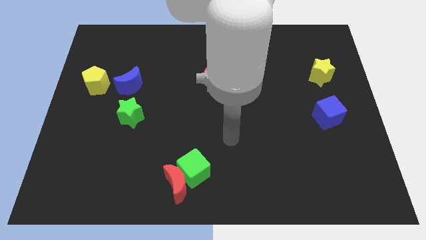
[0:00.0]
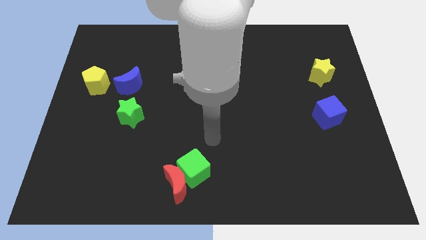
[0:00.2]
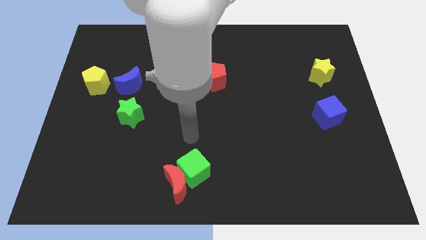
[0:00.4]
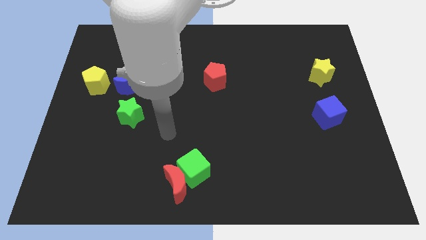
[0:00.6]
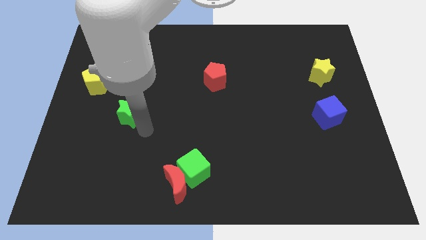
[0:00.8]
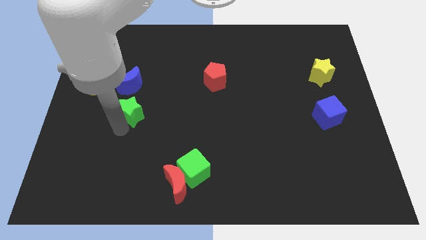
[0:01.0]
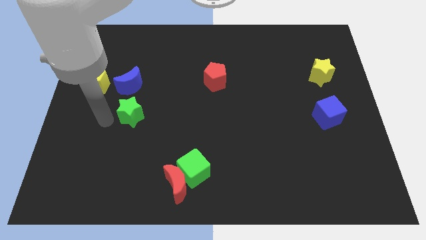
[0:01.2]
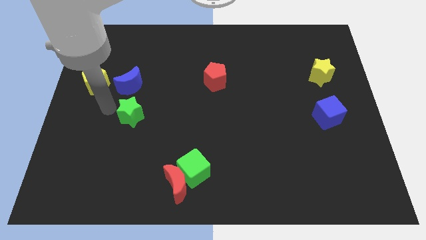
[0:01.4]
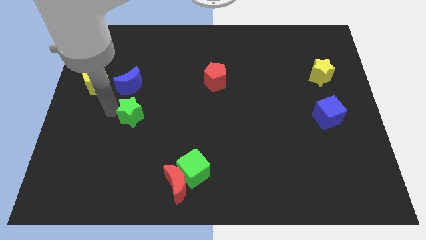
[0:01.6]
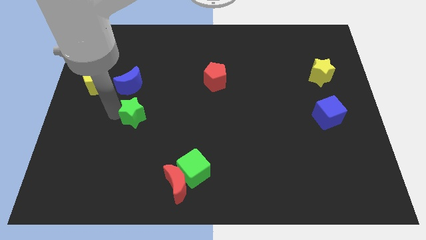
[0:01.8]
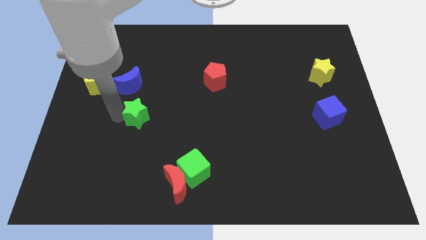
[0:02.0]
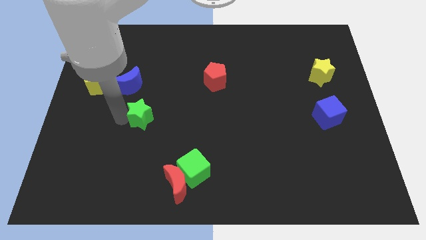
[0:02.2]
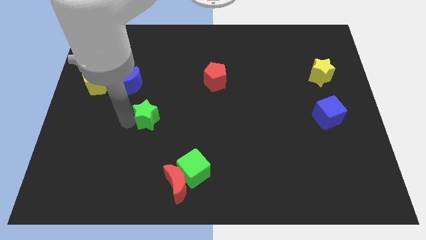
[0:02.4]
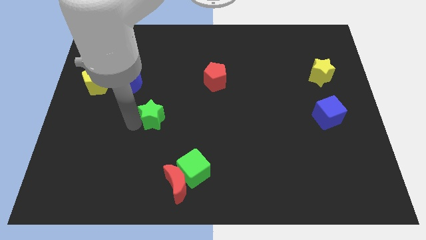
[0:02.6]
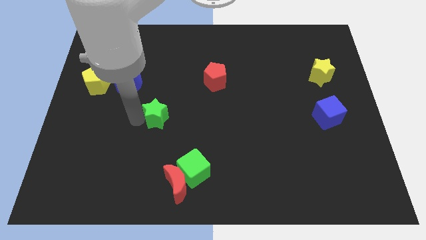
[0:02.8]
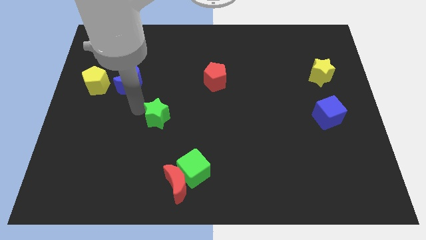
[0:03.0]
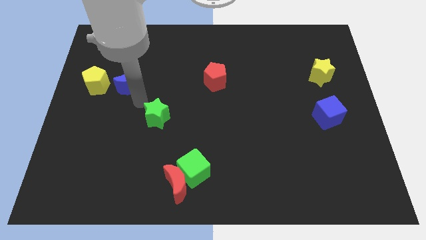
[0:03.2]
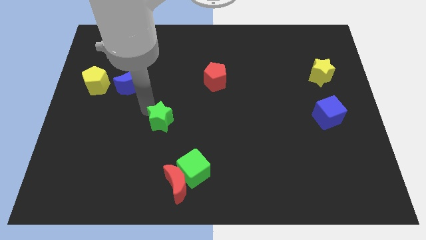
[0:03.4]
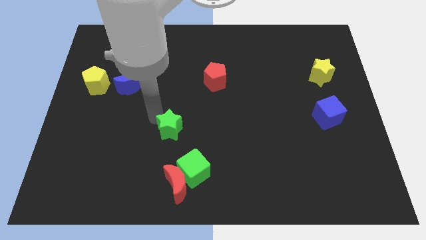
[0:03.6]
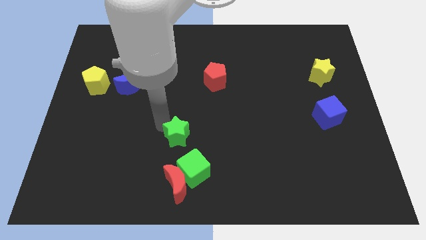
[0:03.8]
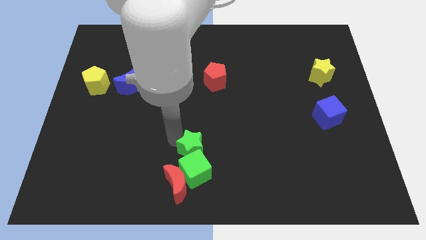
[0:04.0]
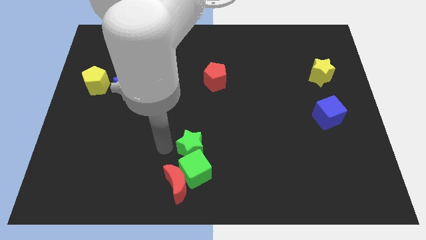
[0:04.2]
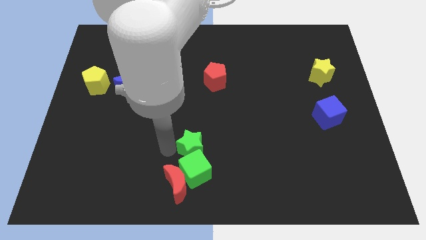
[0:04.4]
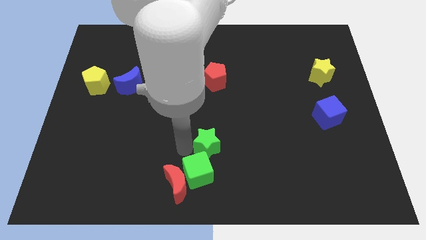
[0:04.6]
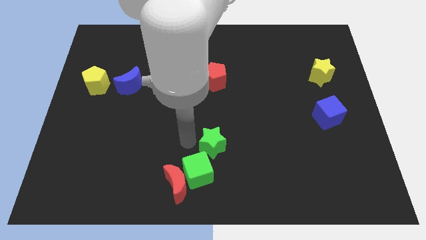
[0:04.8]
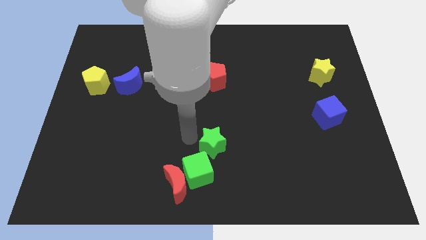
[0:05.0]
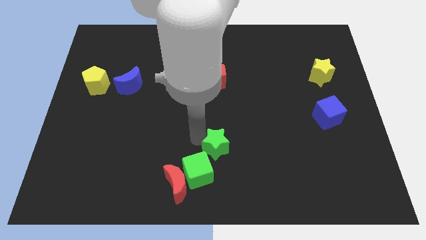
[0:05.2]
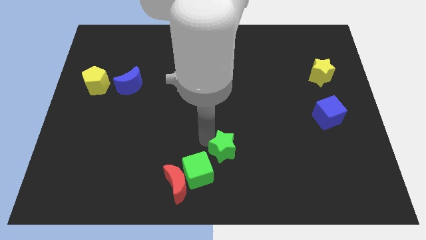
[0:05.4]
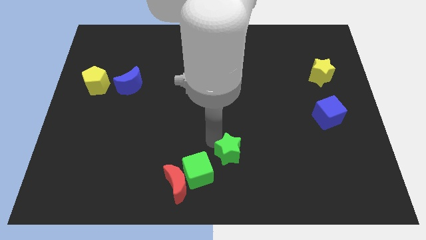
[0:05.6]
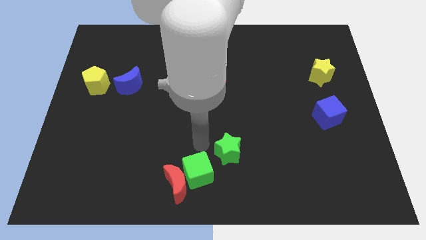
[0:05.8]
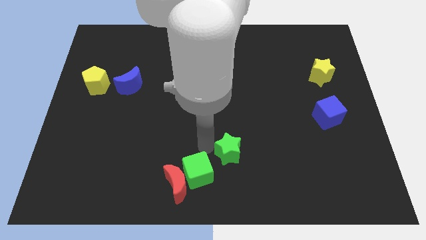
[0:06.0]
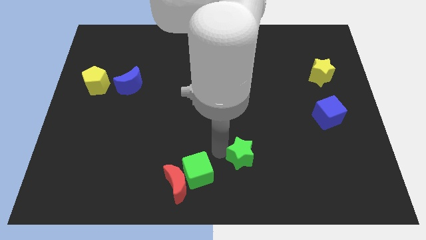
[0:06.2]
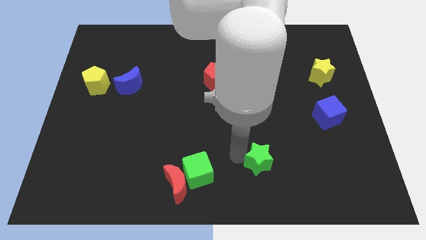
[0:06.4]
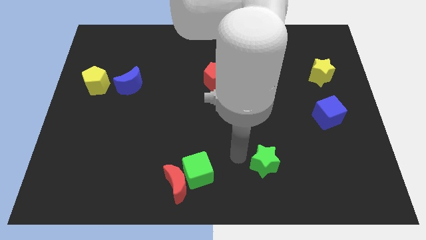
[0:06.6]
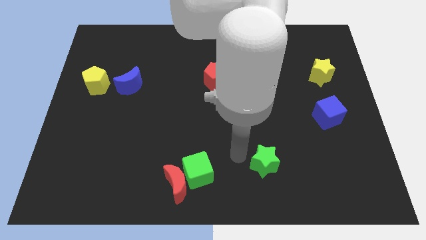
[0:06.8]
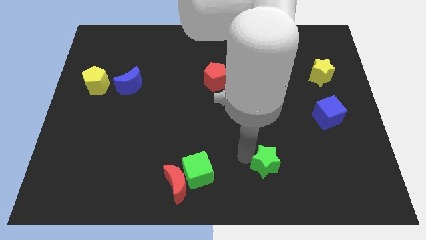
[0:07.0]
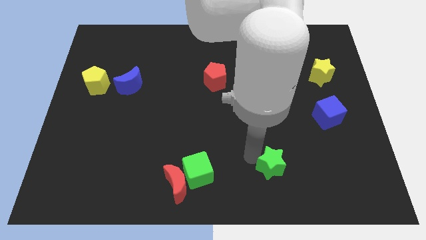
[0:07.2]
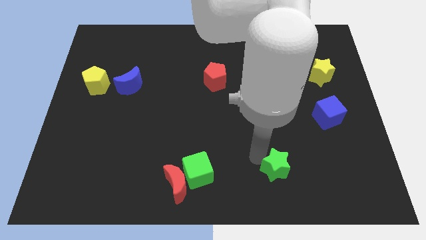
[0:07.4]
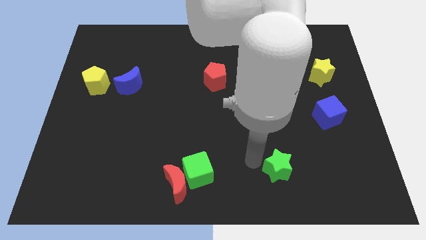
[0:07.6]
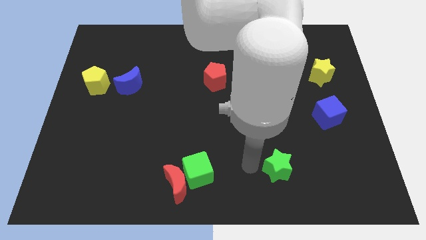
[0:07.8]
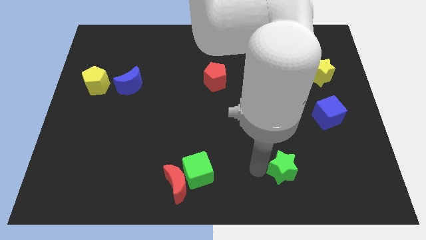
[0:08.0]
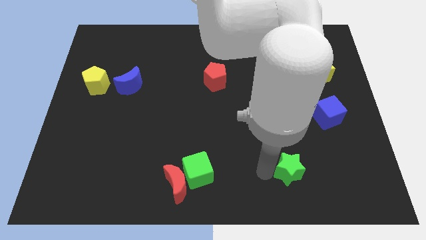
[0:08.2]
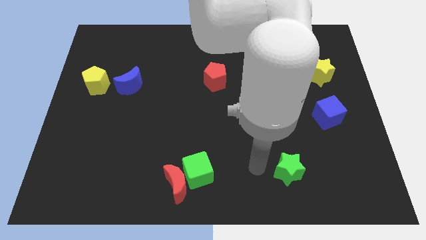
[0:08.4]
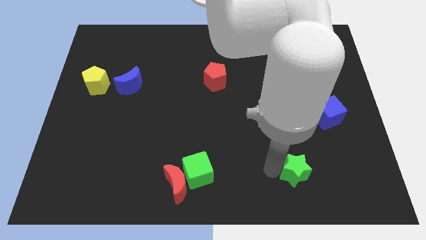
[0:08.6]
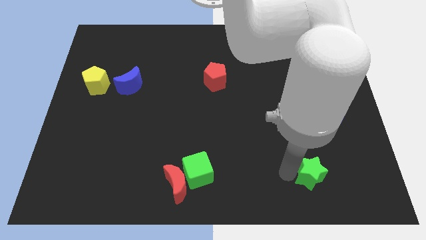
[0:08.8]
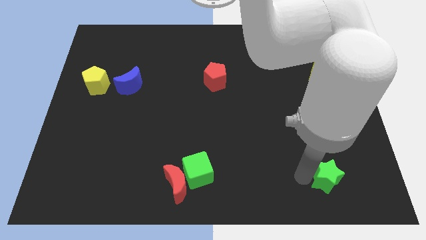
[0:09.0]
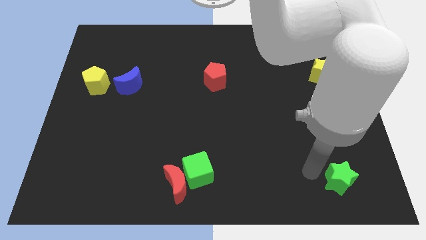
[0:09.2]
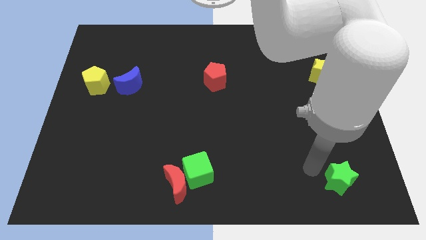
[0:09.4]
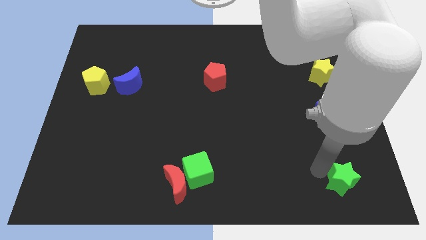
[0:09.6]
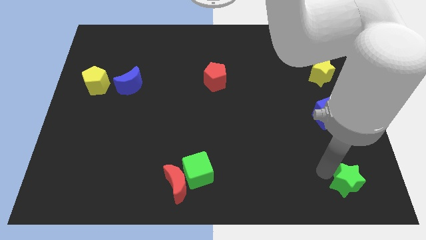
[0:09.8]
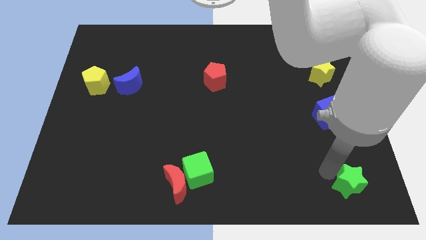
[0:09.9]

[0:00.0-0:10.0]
slide the green star to the lower right corner

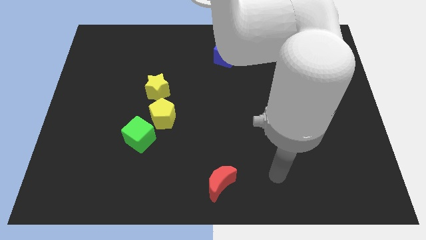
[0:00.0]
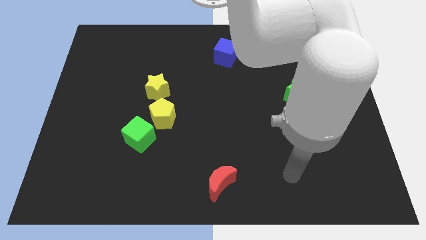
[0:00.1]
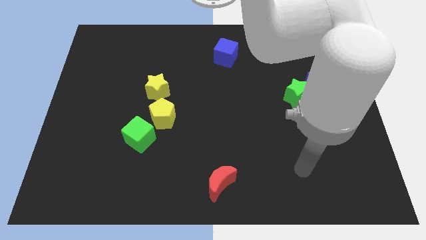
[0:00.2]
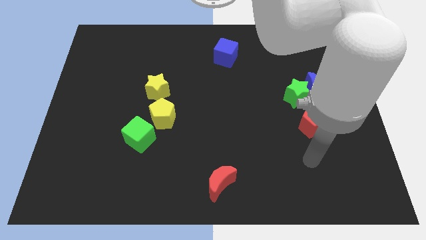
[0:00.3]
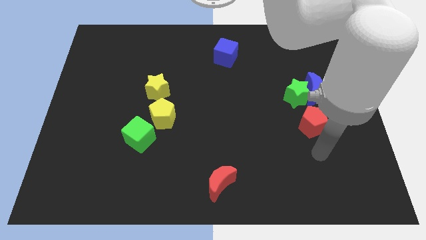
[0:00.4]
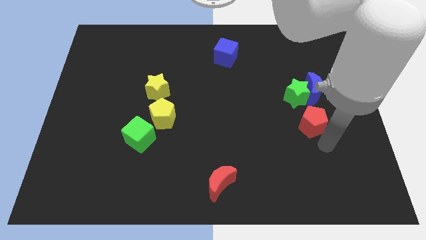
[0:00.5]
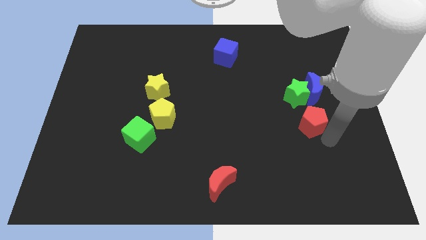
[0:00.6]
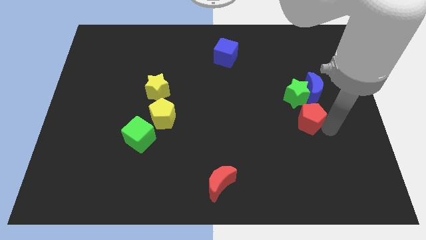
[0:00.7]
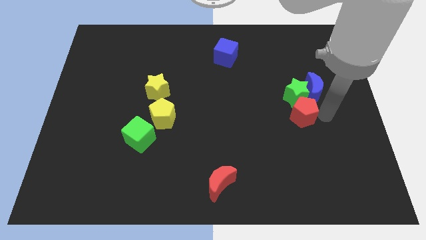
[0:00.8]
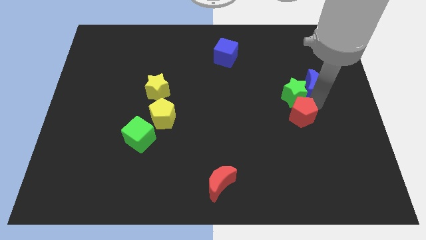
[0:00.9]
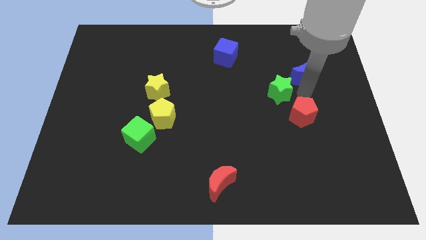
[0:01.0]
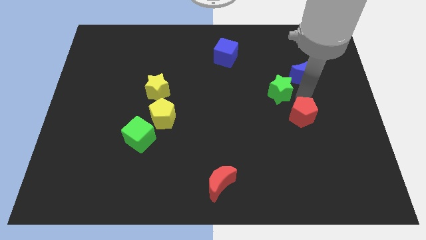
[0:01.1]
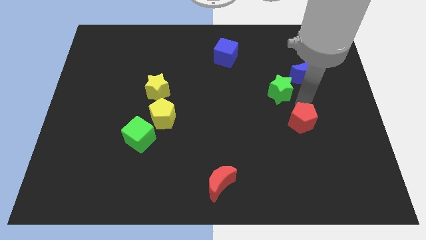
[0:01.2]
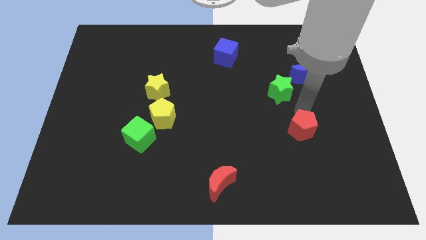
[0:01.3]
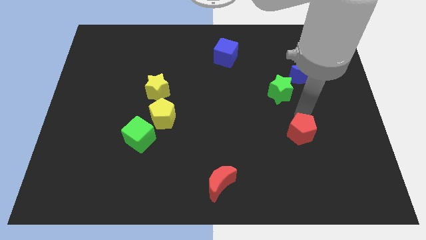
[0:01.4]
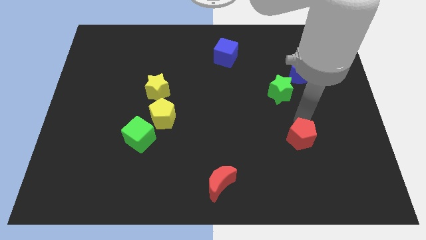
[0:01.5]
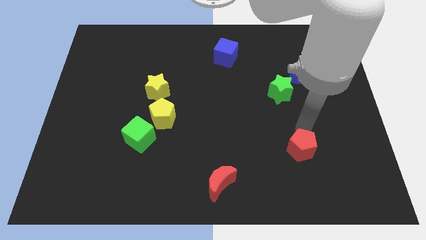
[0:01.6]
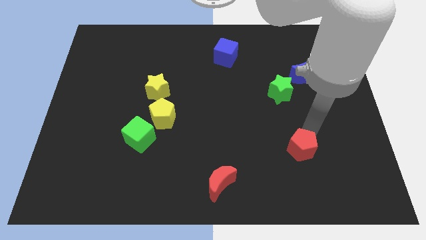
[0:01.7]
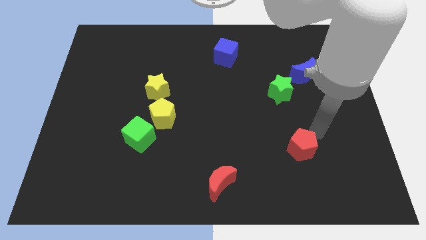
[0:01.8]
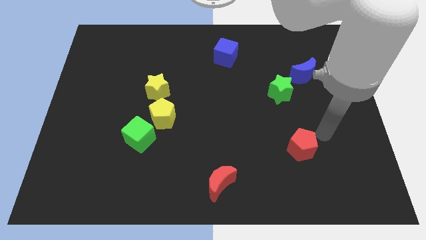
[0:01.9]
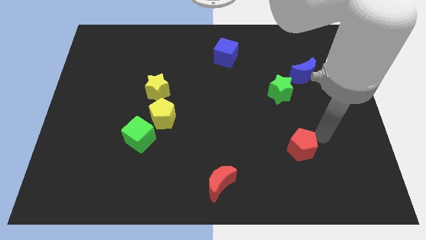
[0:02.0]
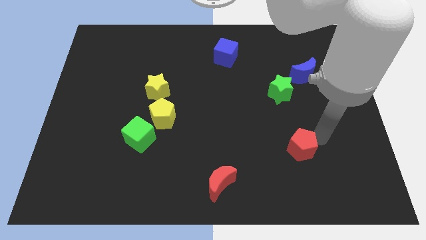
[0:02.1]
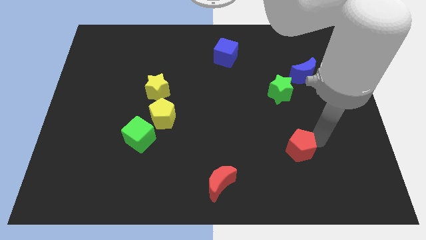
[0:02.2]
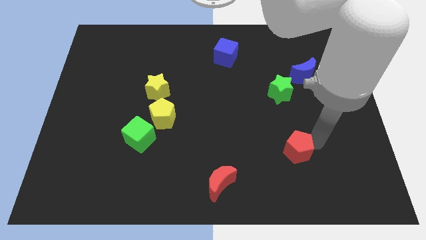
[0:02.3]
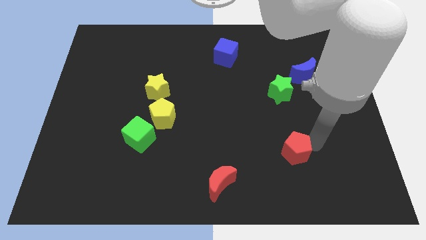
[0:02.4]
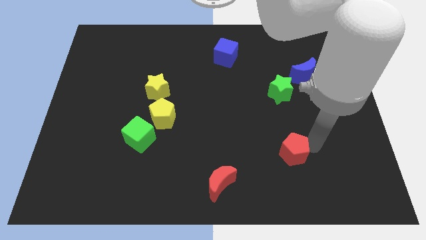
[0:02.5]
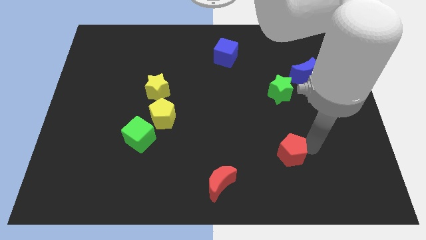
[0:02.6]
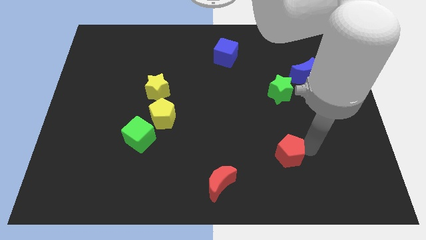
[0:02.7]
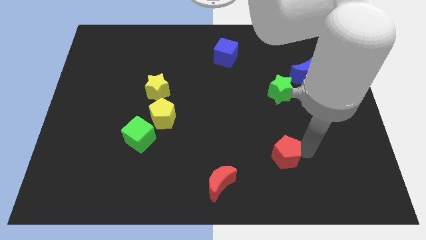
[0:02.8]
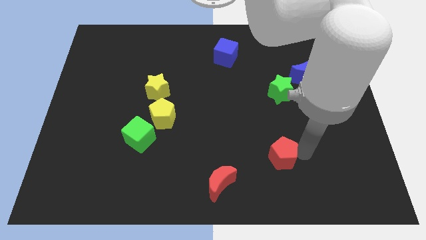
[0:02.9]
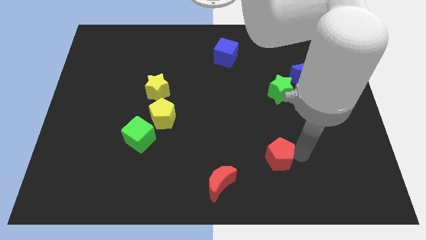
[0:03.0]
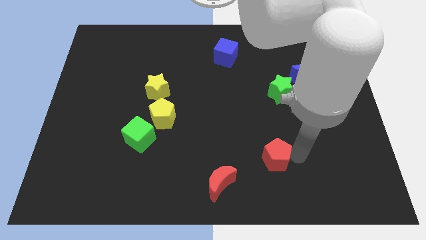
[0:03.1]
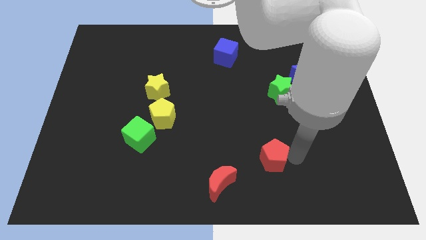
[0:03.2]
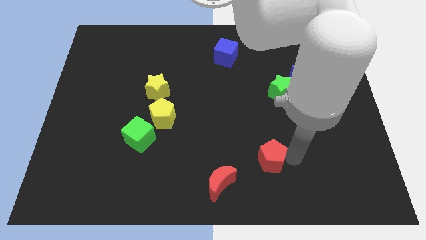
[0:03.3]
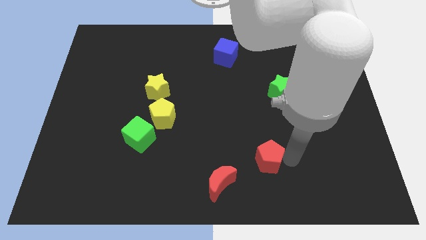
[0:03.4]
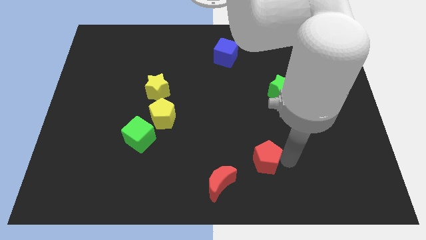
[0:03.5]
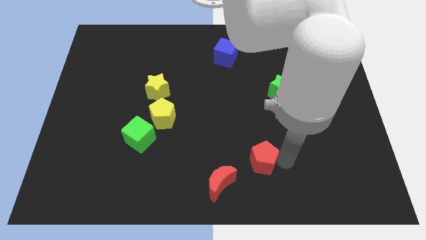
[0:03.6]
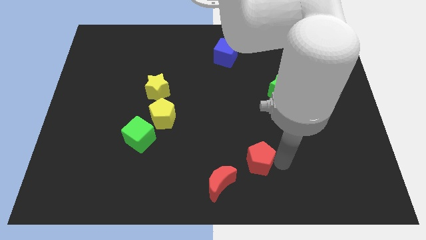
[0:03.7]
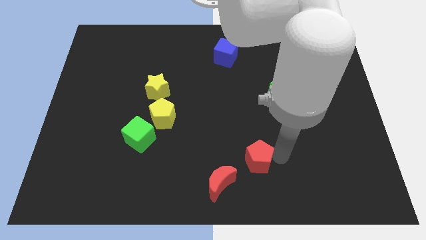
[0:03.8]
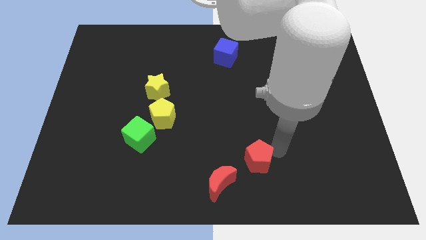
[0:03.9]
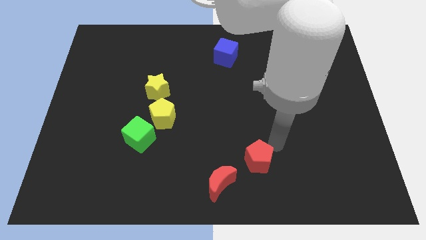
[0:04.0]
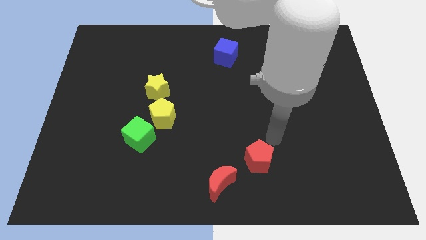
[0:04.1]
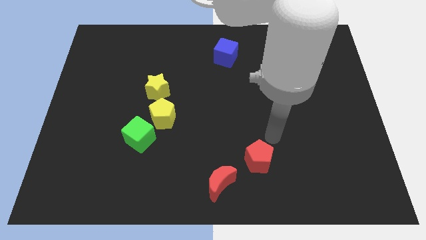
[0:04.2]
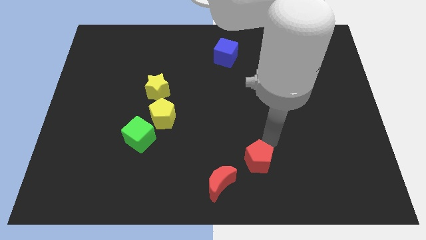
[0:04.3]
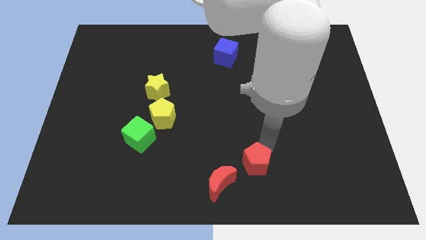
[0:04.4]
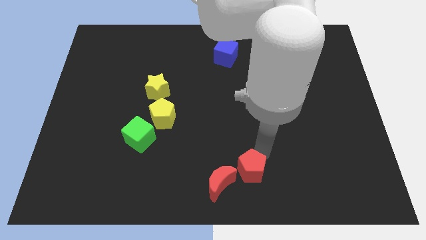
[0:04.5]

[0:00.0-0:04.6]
move the red pentagon to the bottom side
